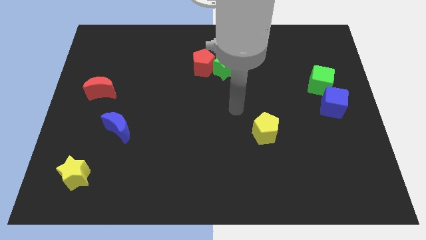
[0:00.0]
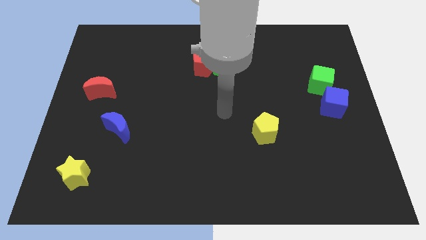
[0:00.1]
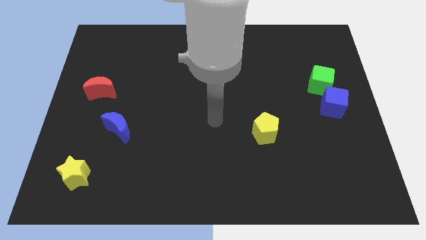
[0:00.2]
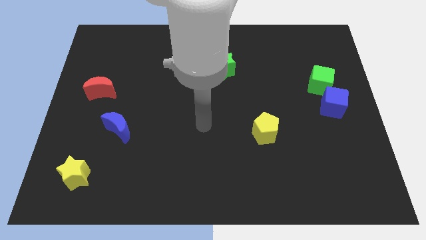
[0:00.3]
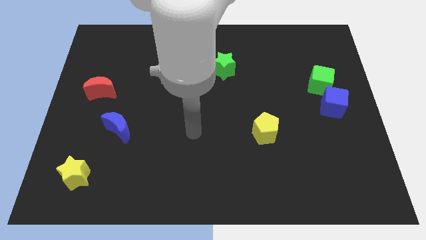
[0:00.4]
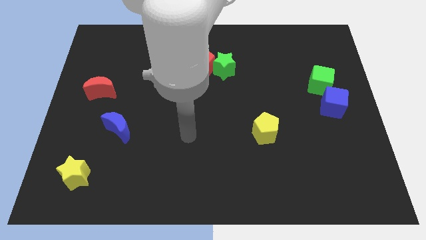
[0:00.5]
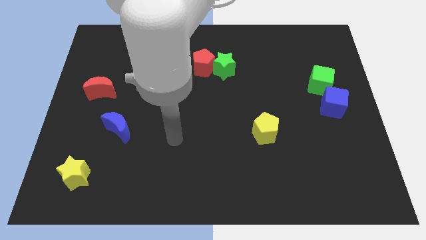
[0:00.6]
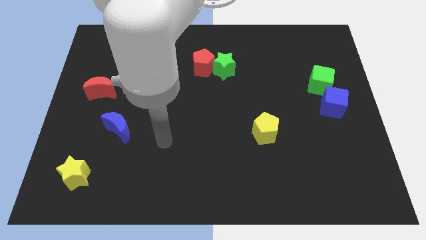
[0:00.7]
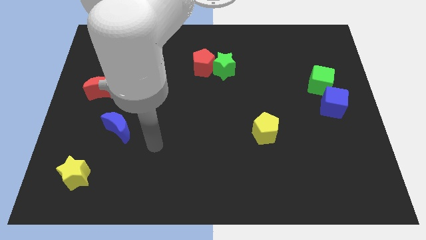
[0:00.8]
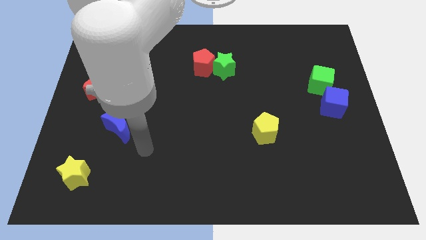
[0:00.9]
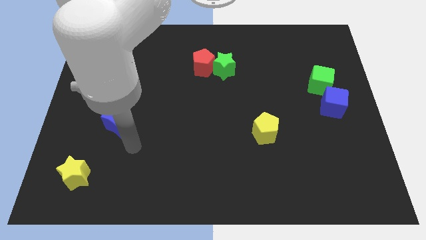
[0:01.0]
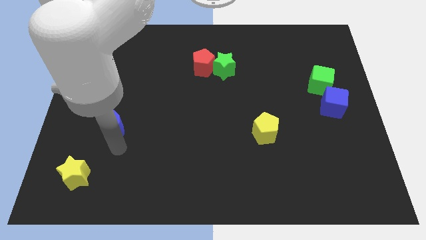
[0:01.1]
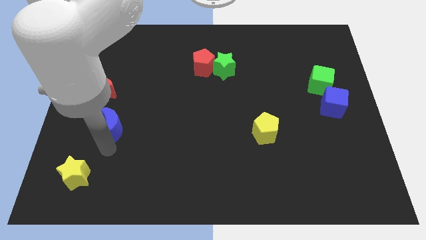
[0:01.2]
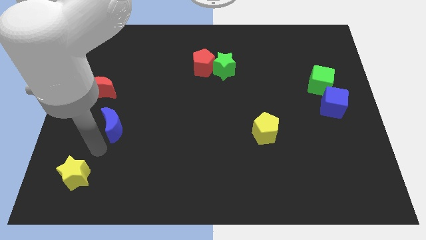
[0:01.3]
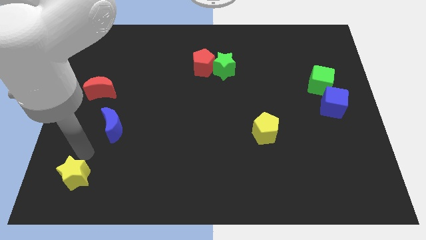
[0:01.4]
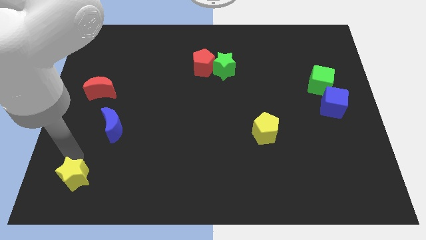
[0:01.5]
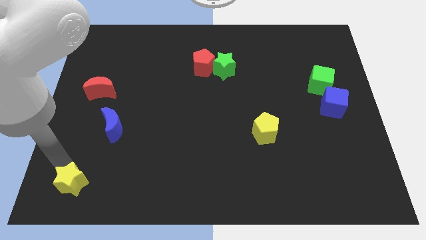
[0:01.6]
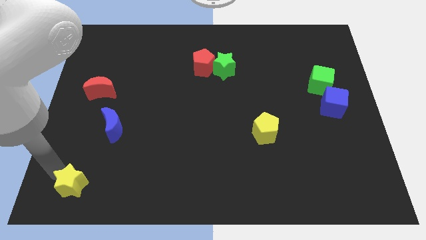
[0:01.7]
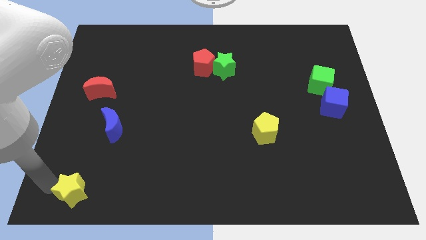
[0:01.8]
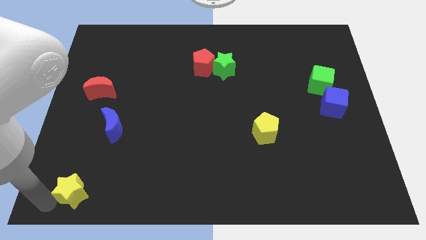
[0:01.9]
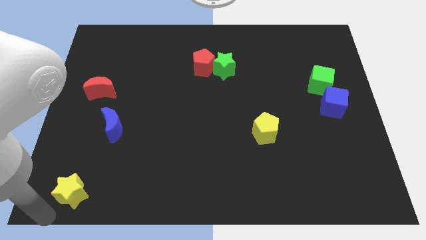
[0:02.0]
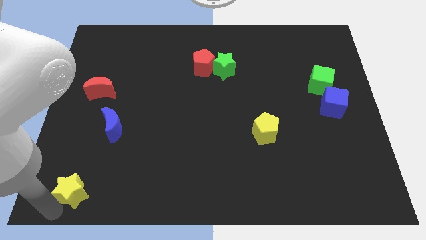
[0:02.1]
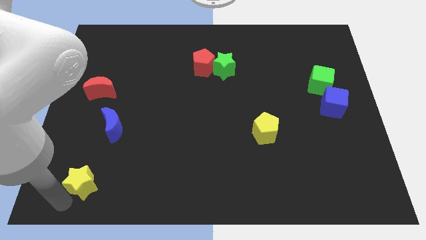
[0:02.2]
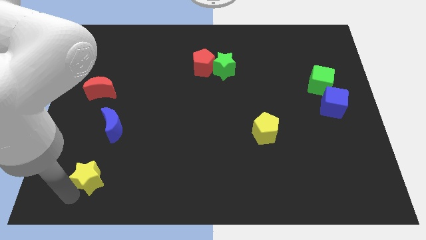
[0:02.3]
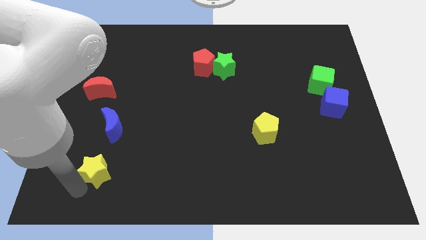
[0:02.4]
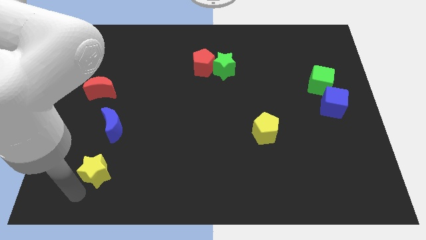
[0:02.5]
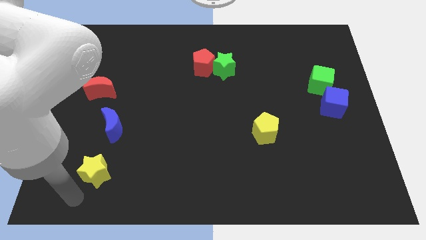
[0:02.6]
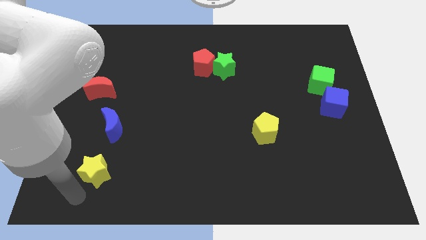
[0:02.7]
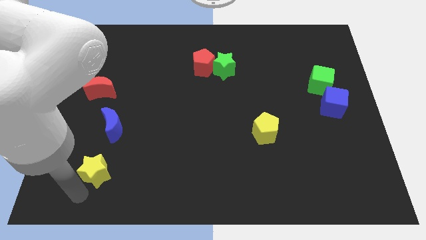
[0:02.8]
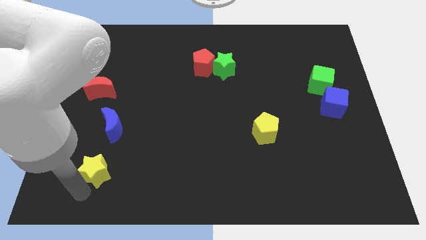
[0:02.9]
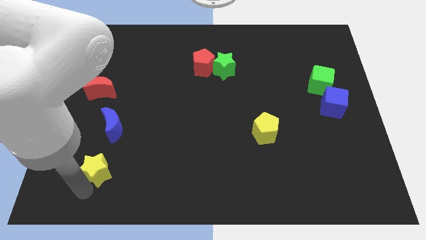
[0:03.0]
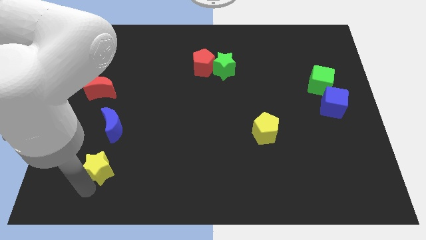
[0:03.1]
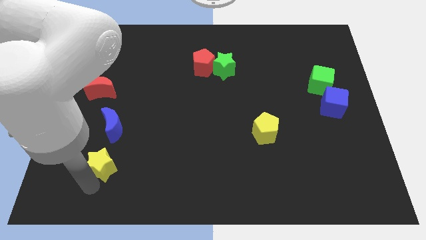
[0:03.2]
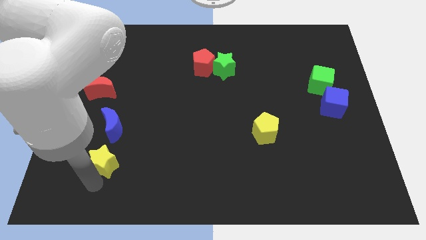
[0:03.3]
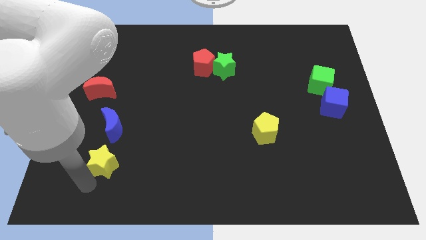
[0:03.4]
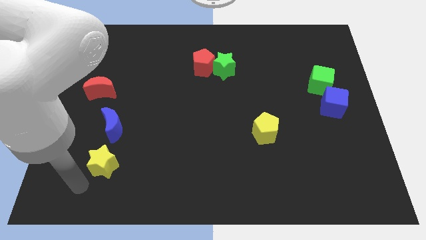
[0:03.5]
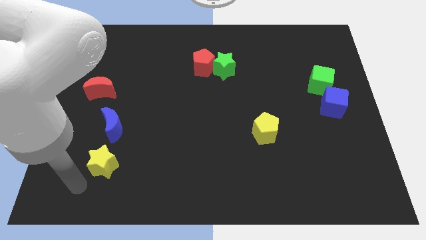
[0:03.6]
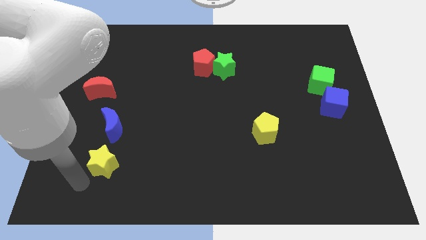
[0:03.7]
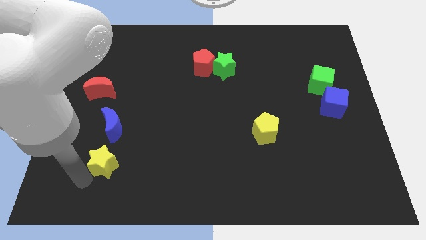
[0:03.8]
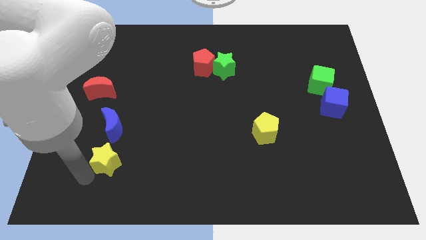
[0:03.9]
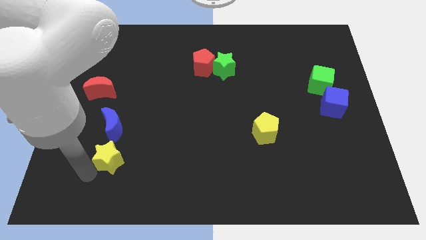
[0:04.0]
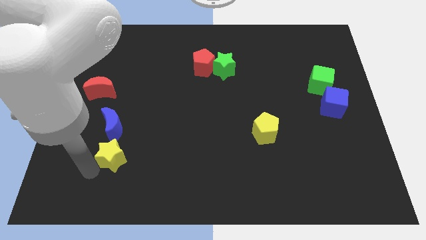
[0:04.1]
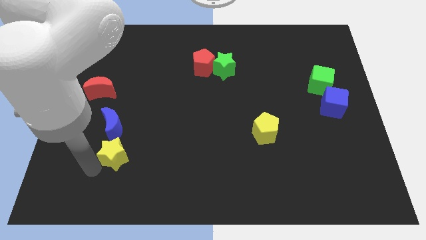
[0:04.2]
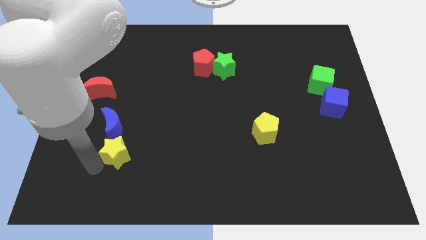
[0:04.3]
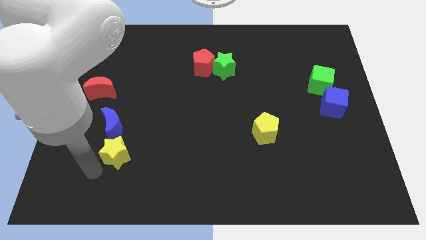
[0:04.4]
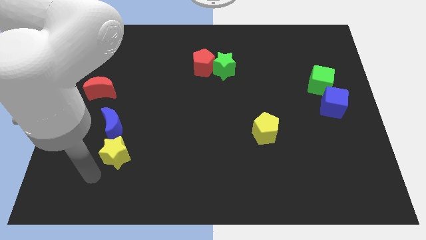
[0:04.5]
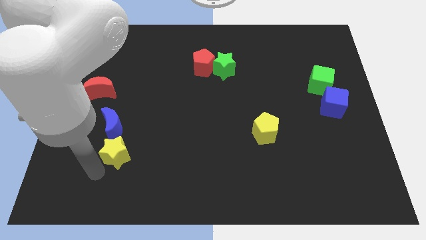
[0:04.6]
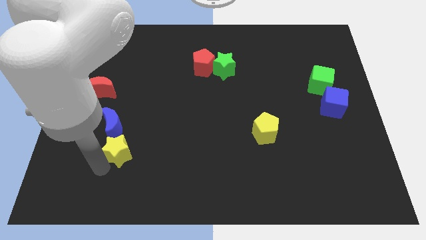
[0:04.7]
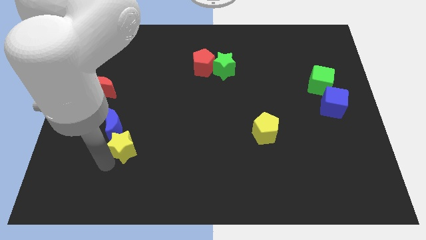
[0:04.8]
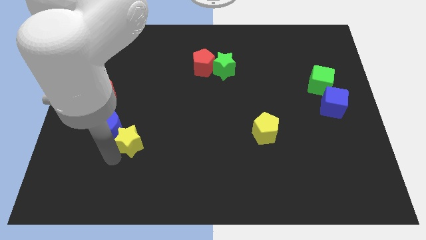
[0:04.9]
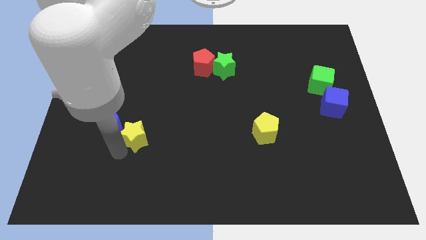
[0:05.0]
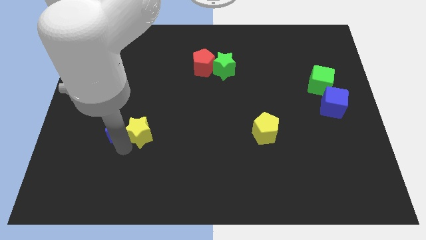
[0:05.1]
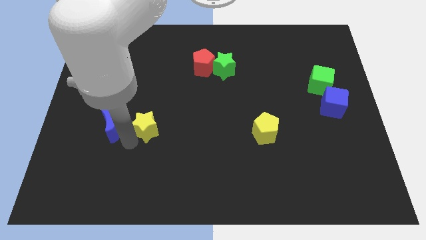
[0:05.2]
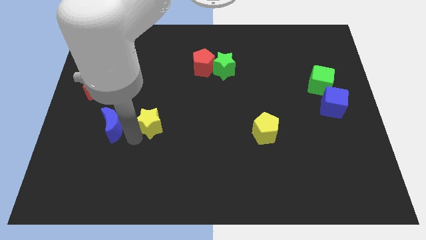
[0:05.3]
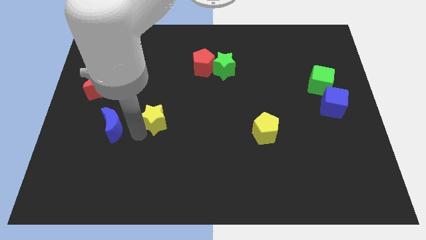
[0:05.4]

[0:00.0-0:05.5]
slide the yellow star upwards and to the right diagonally

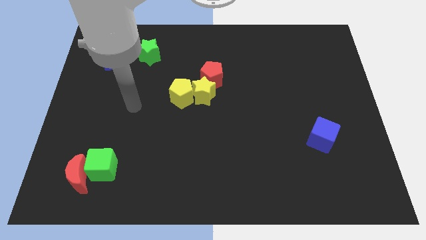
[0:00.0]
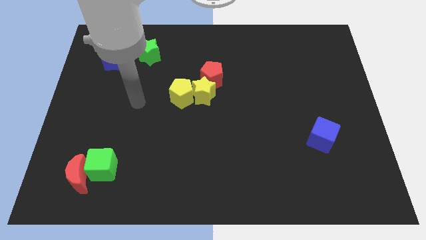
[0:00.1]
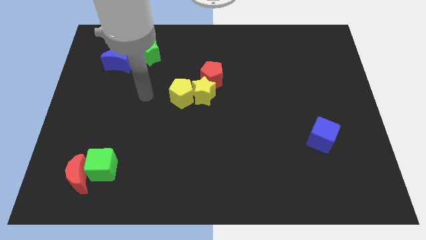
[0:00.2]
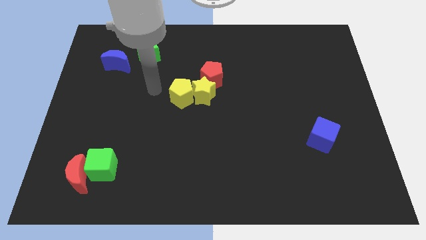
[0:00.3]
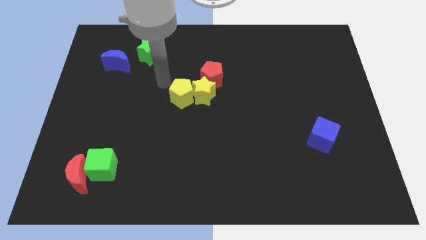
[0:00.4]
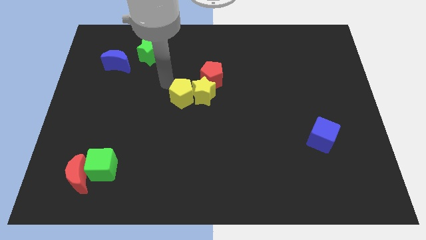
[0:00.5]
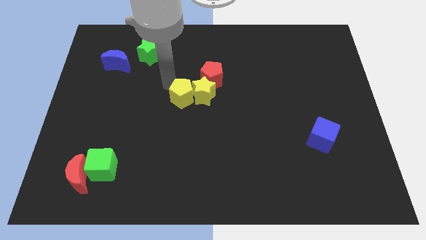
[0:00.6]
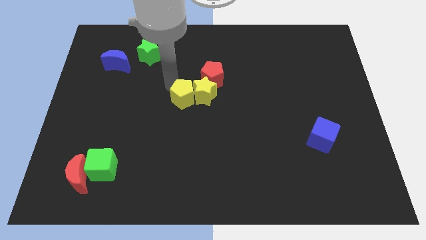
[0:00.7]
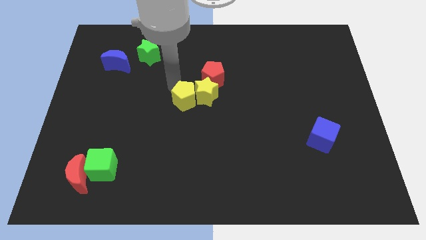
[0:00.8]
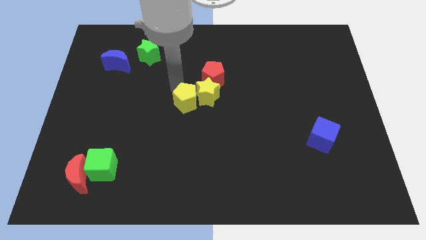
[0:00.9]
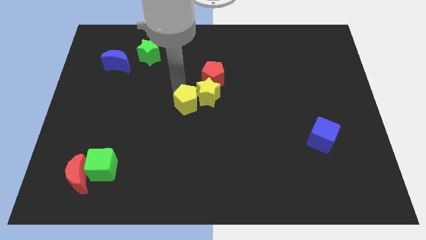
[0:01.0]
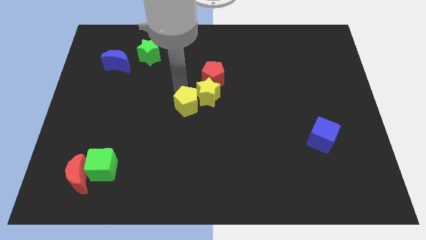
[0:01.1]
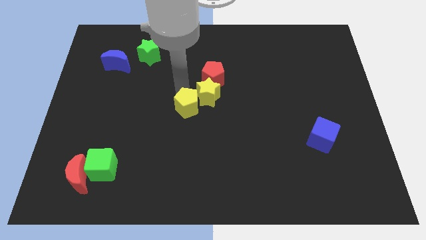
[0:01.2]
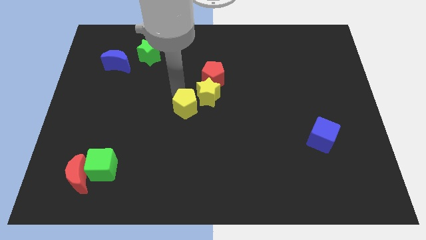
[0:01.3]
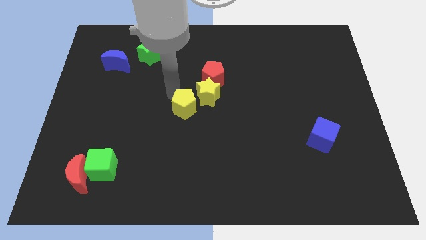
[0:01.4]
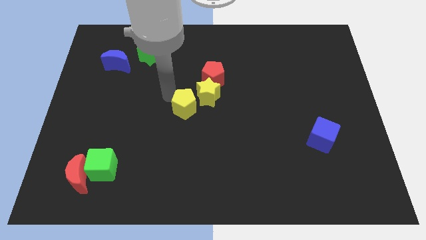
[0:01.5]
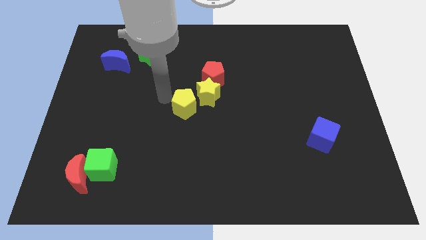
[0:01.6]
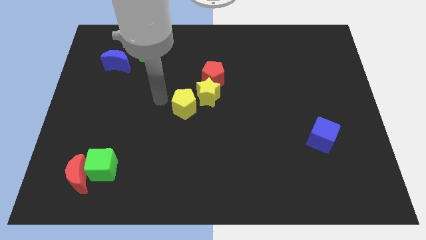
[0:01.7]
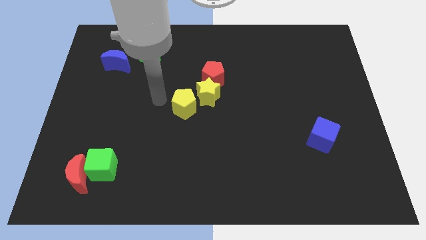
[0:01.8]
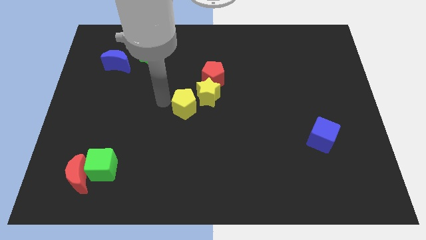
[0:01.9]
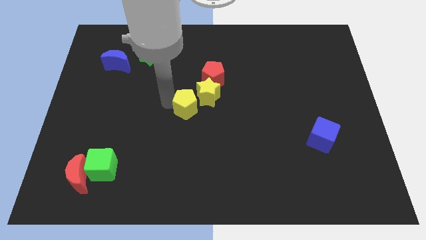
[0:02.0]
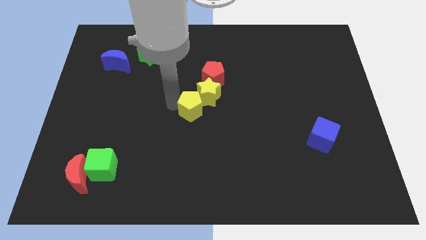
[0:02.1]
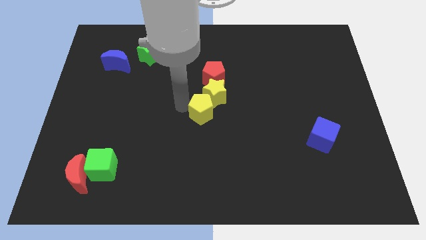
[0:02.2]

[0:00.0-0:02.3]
push the yellow pentagon diagonally down and to the right a little

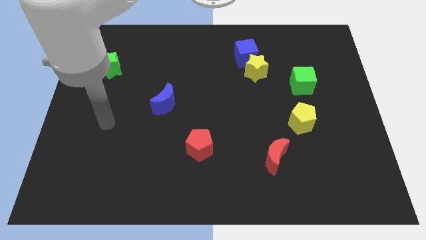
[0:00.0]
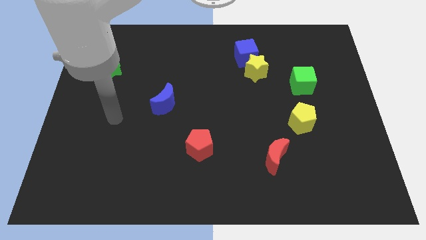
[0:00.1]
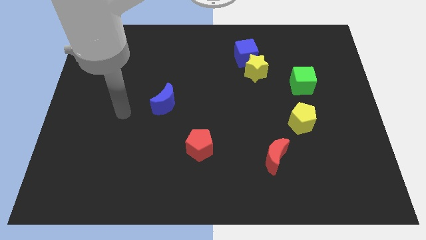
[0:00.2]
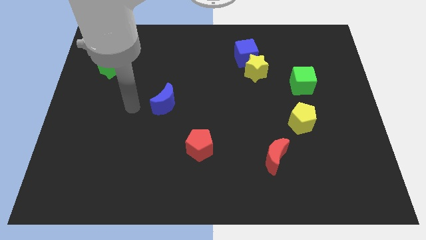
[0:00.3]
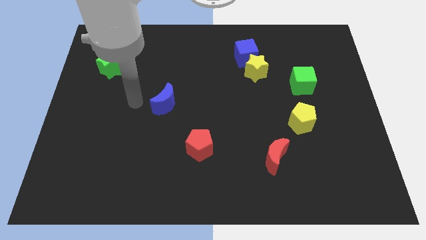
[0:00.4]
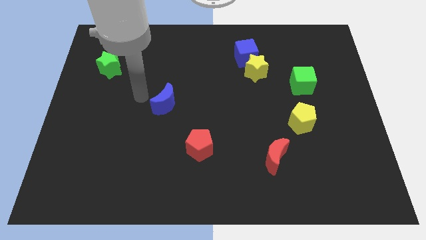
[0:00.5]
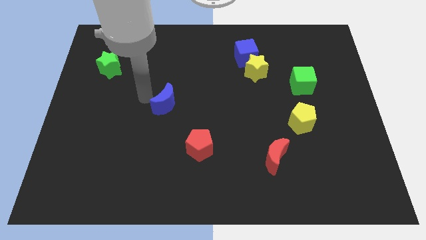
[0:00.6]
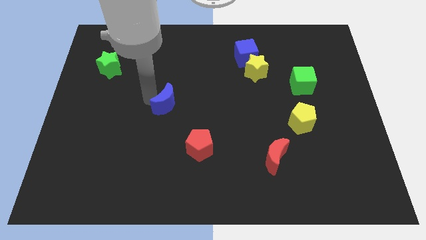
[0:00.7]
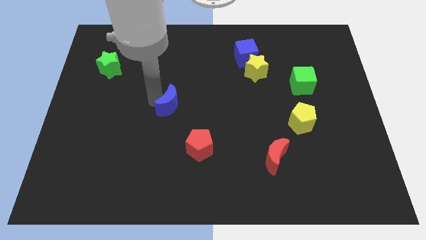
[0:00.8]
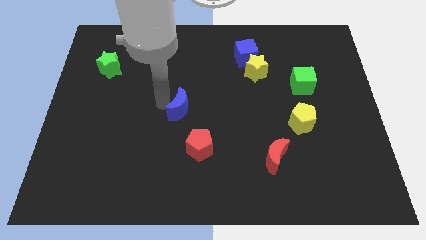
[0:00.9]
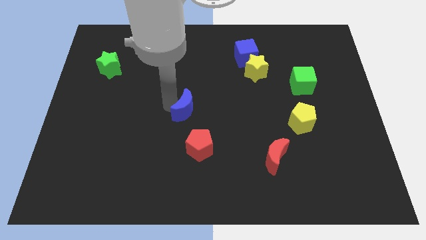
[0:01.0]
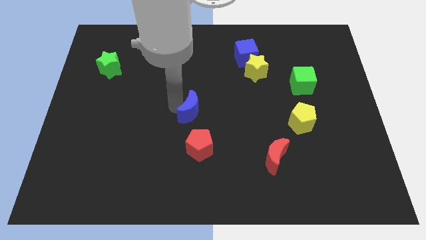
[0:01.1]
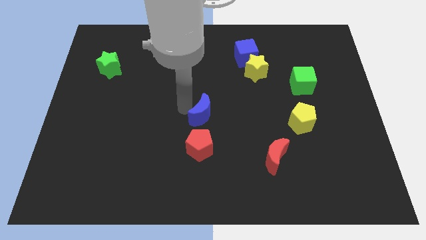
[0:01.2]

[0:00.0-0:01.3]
push the blue moon diagonally downwards and right a bit
